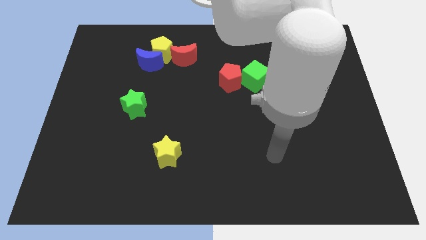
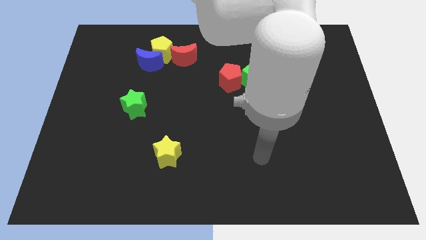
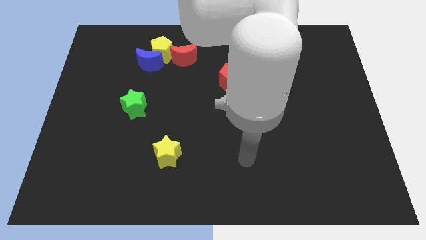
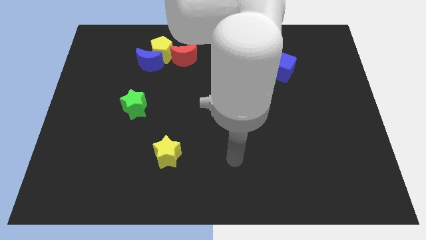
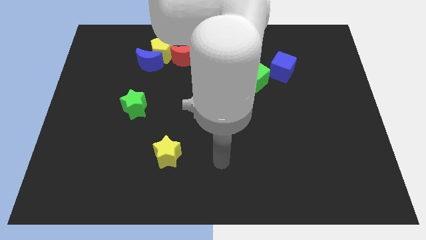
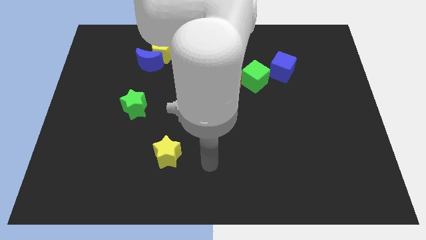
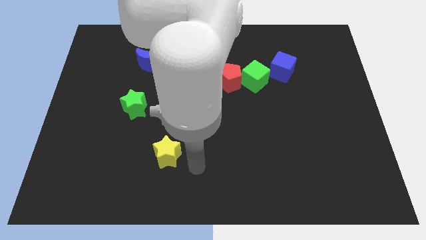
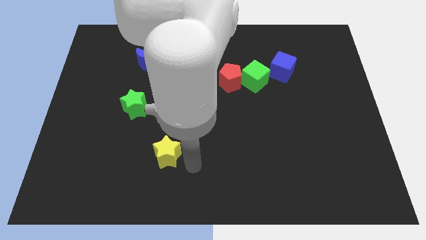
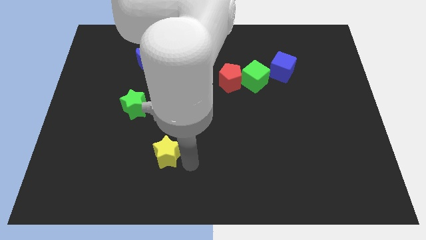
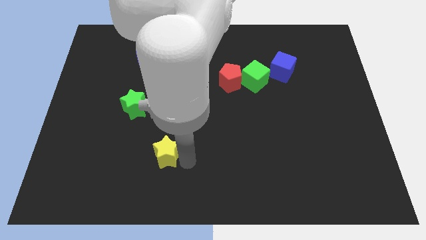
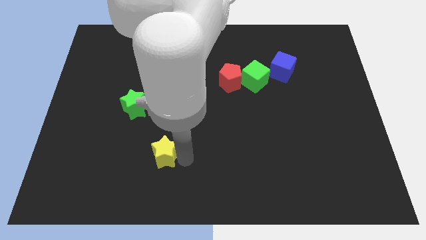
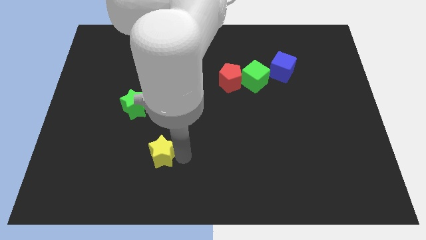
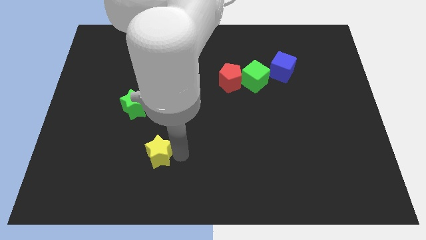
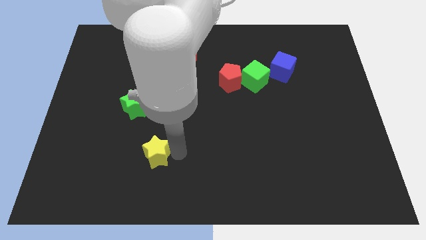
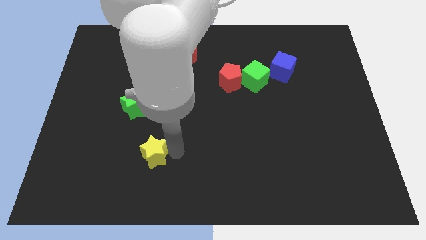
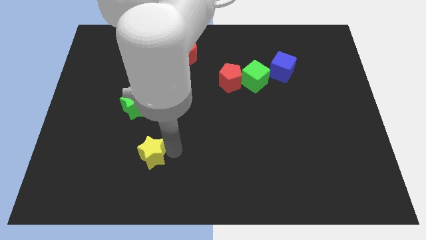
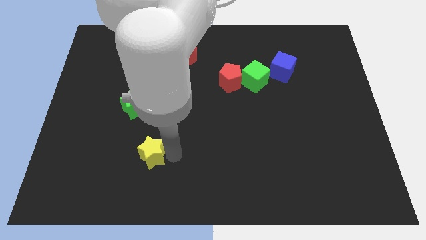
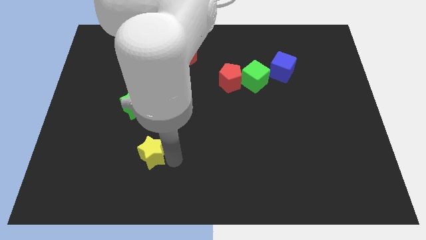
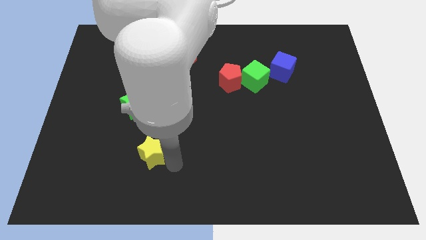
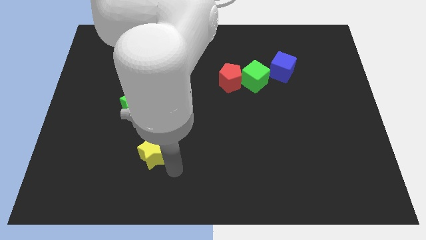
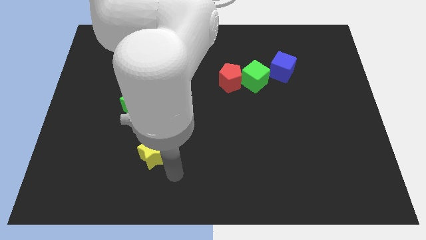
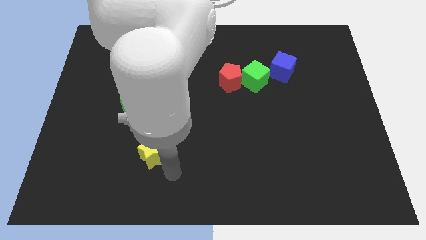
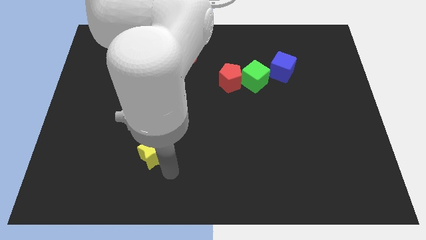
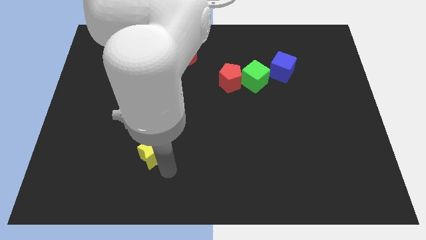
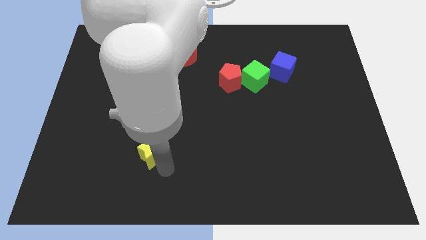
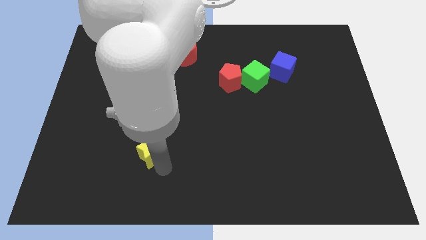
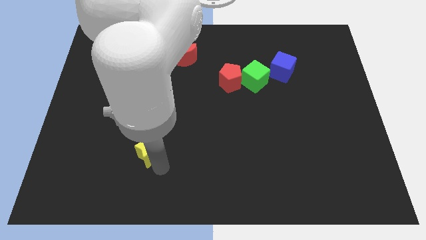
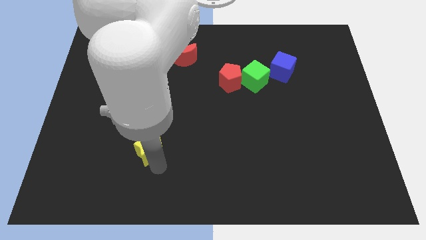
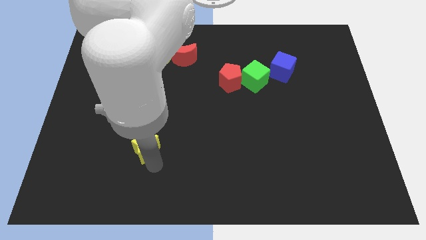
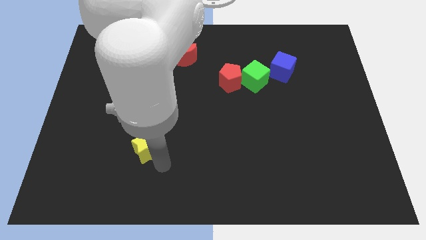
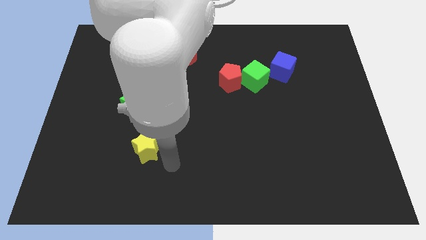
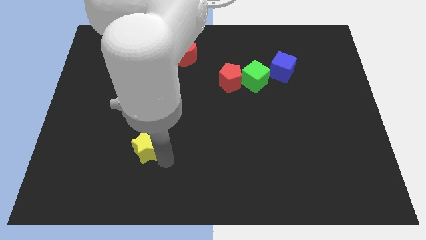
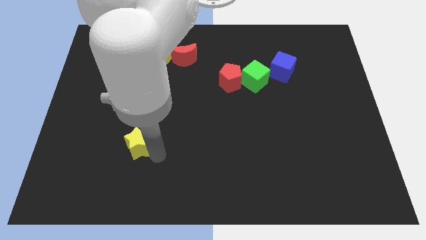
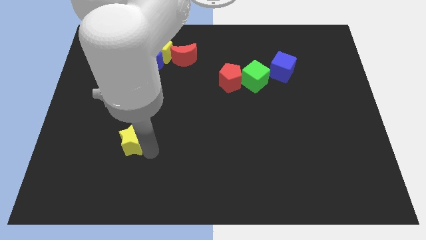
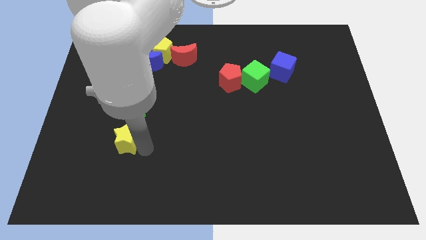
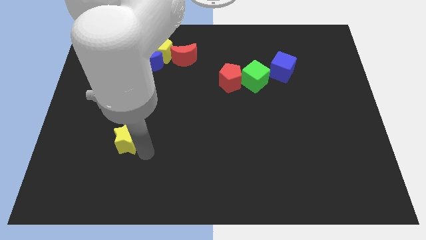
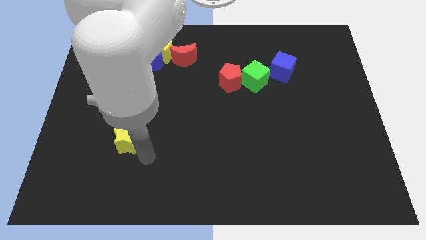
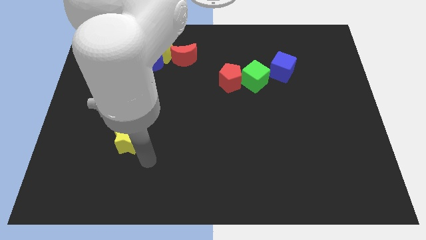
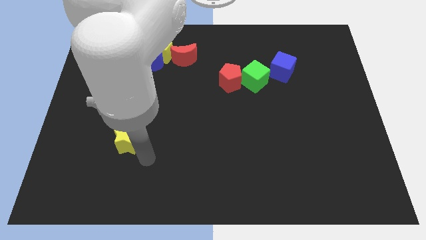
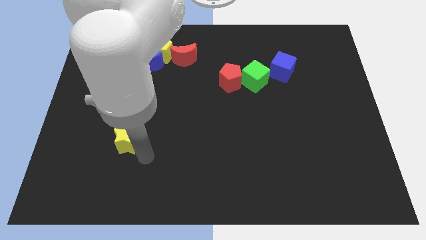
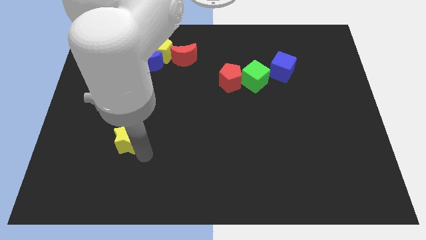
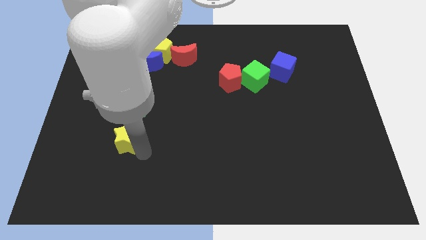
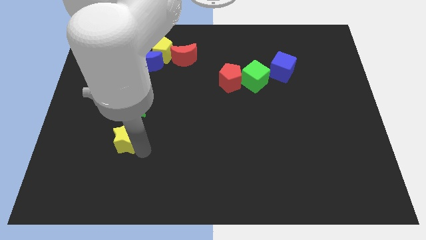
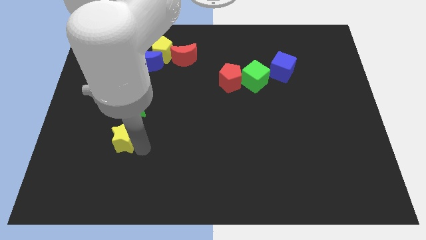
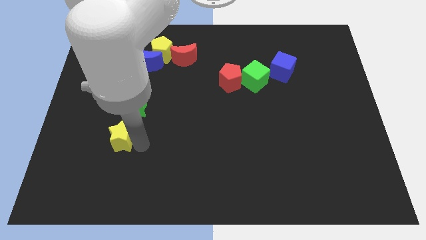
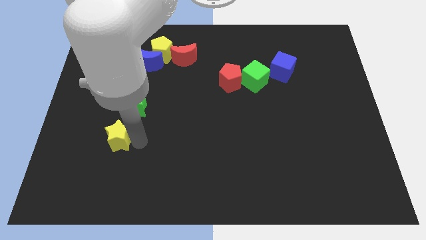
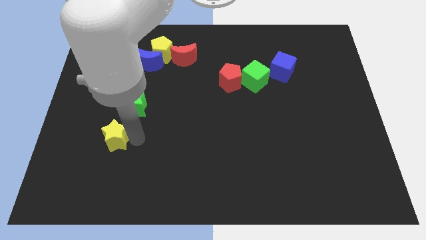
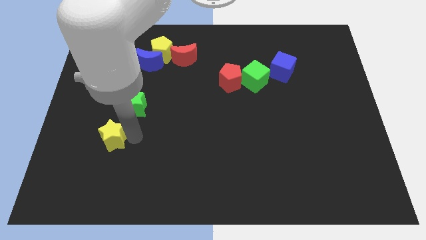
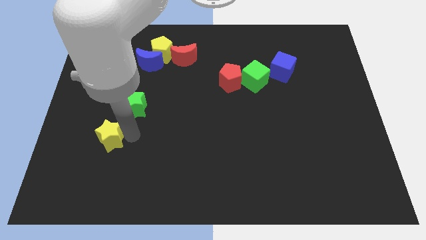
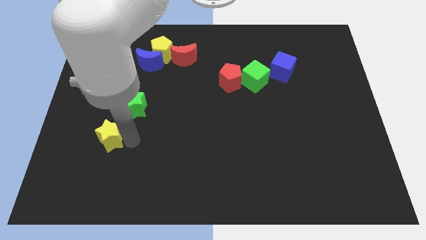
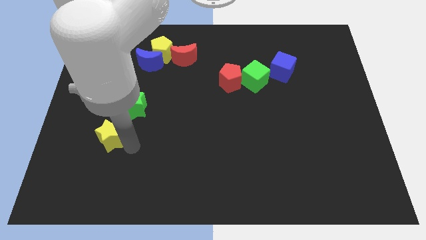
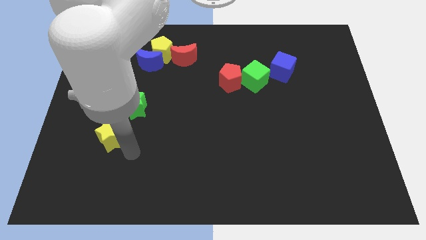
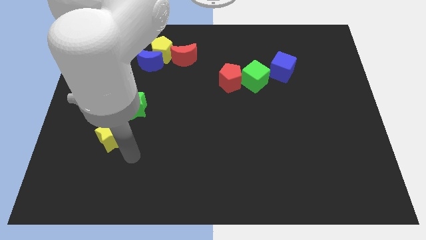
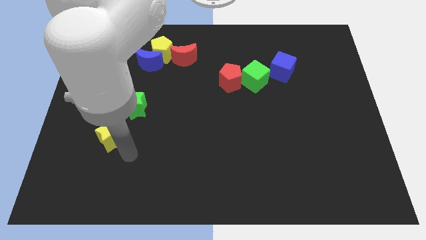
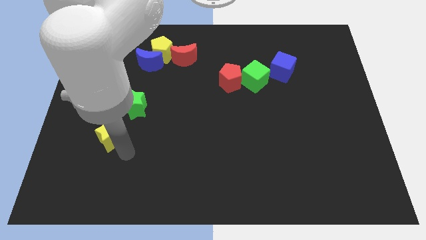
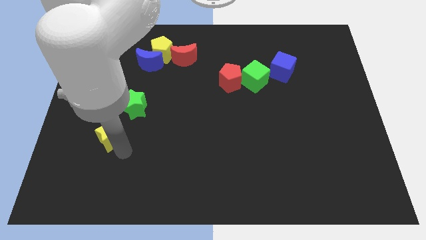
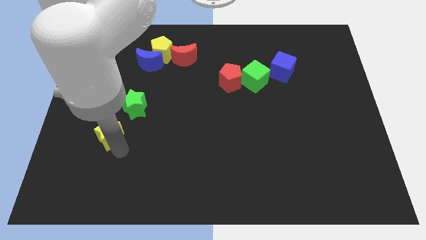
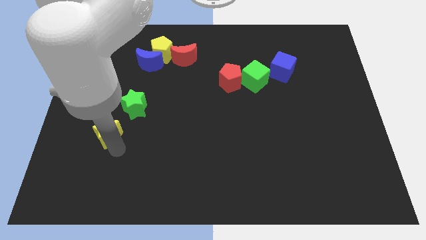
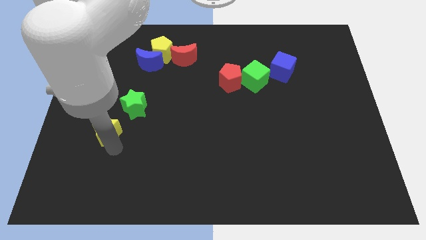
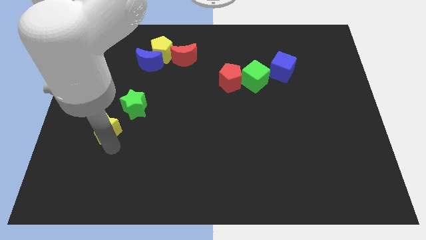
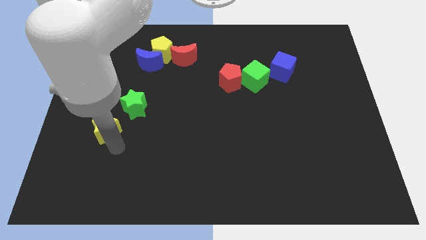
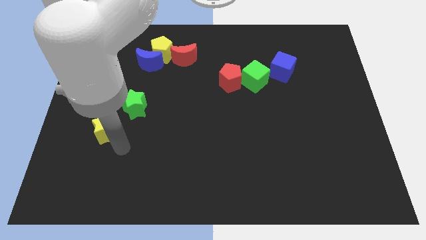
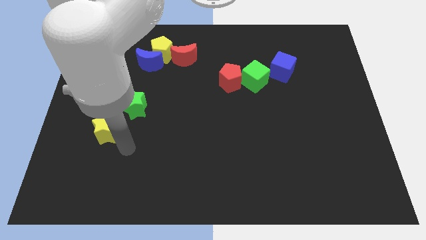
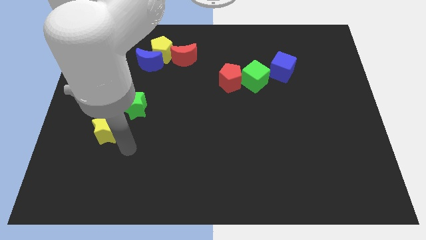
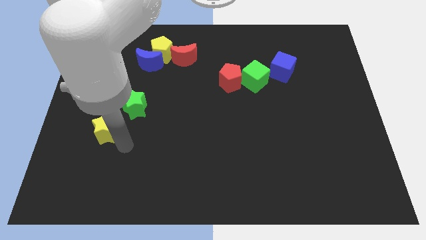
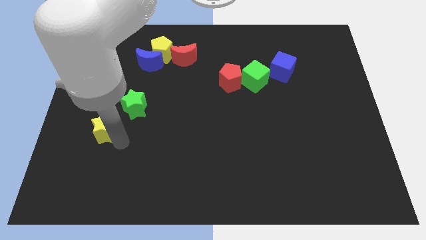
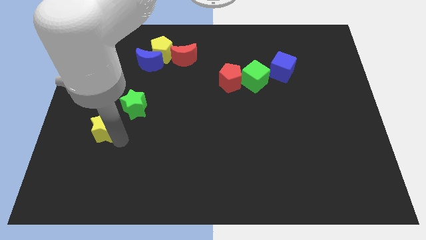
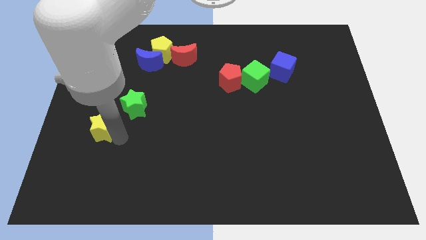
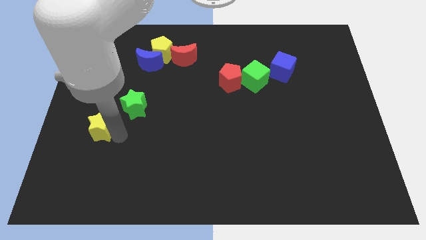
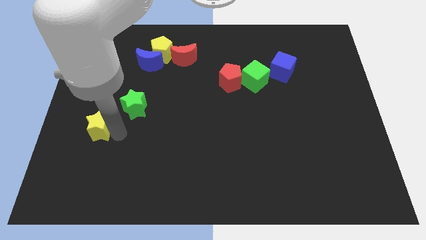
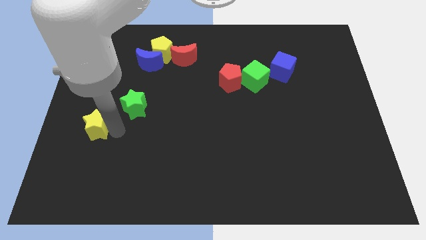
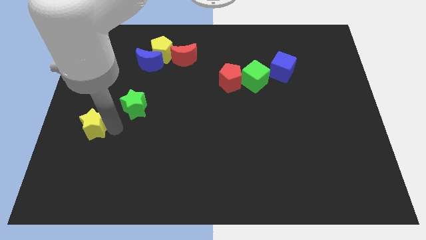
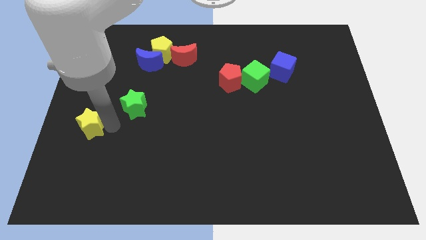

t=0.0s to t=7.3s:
move the yellow star to the center left
